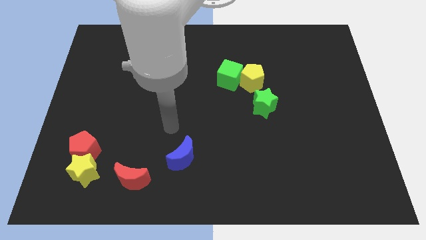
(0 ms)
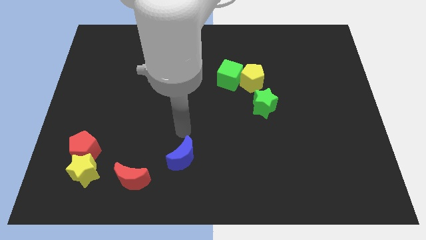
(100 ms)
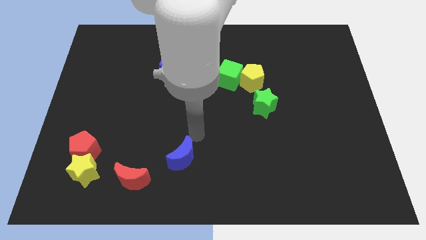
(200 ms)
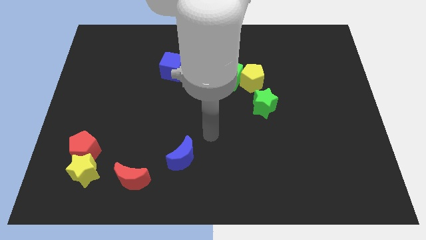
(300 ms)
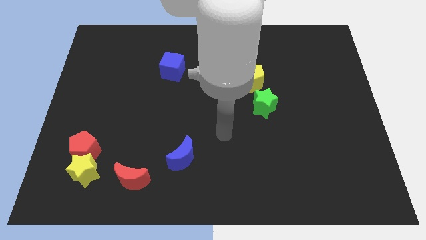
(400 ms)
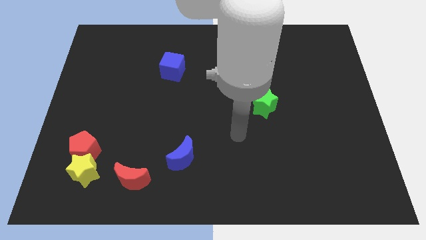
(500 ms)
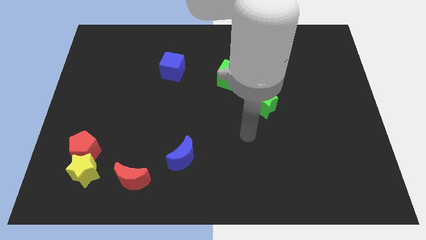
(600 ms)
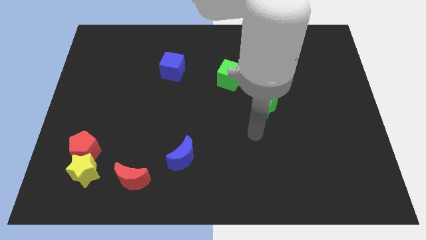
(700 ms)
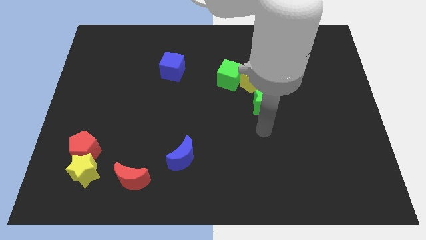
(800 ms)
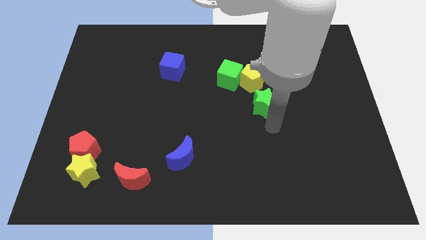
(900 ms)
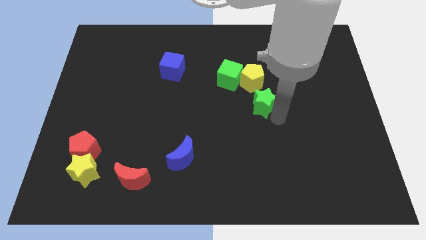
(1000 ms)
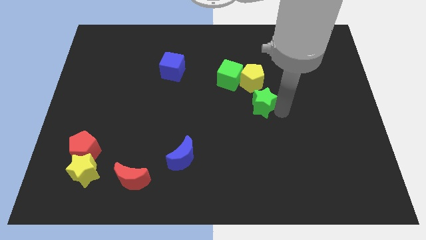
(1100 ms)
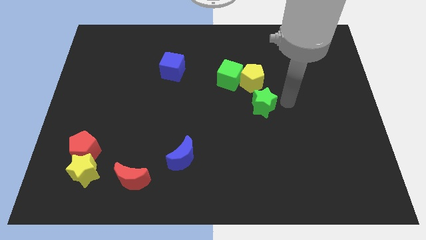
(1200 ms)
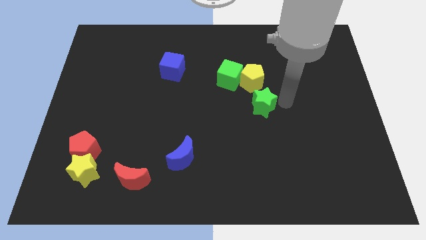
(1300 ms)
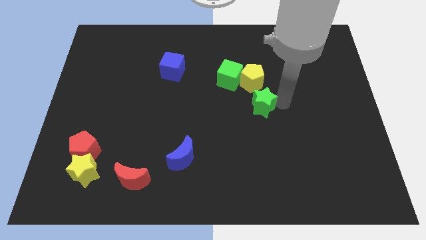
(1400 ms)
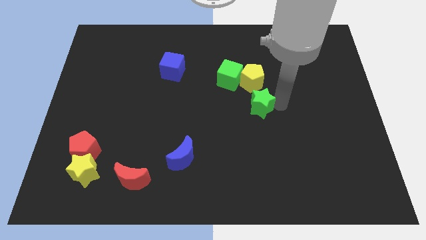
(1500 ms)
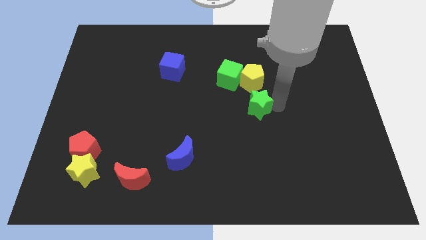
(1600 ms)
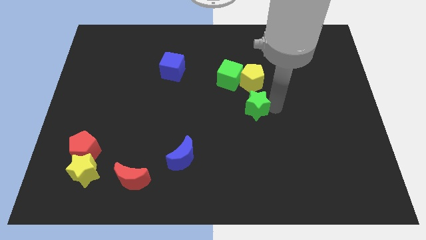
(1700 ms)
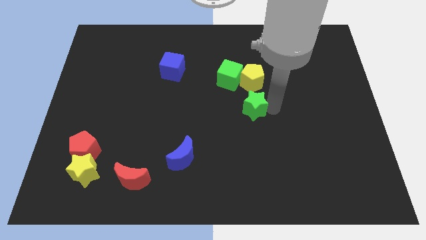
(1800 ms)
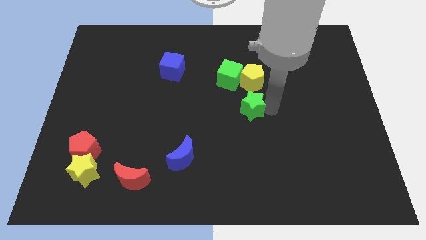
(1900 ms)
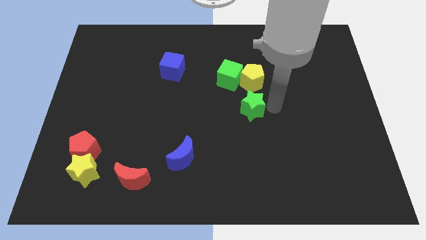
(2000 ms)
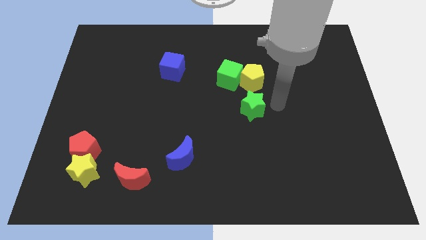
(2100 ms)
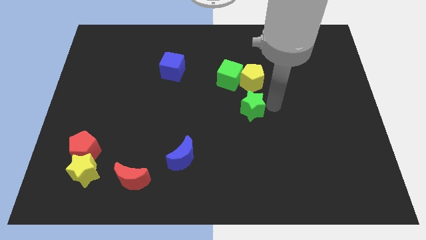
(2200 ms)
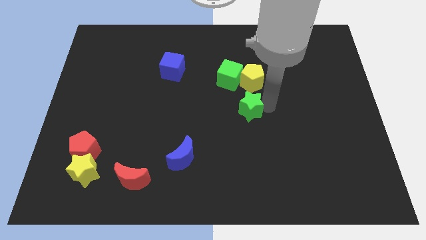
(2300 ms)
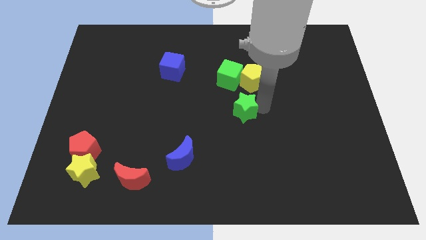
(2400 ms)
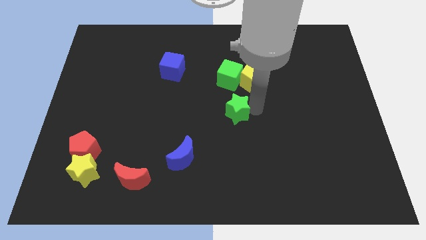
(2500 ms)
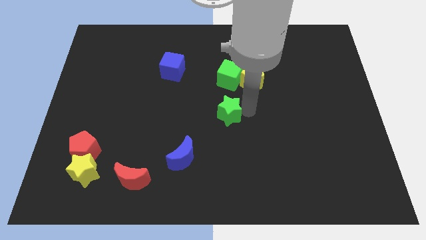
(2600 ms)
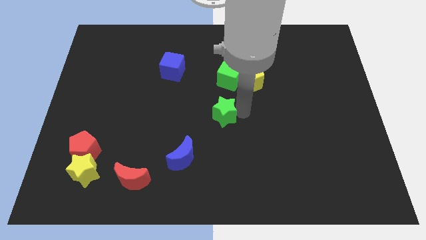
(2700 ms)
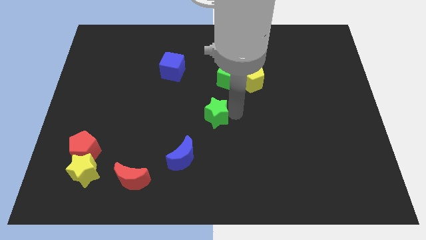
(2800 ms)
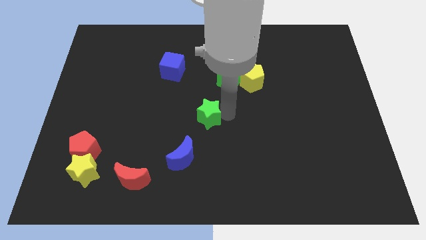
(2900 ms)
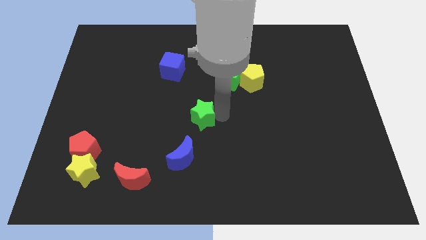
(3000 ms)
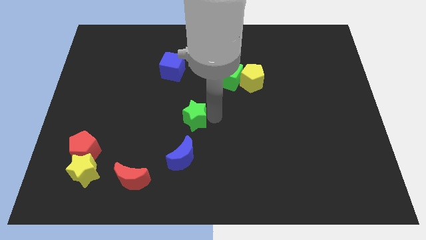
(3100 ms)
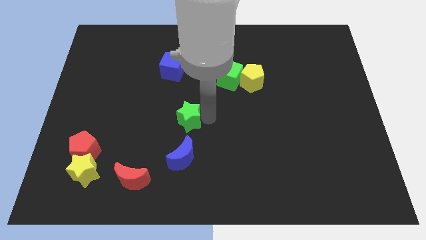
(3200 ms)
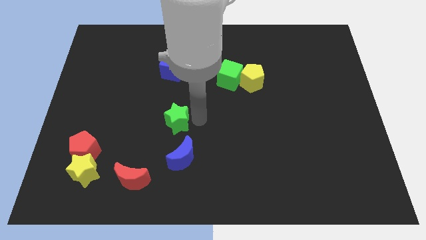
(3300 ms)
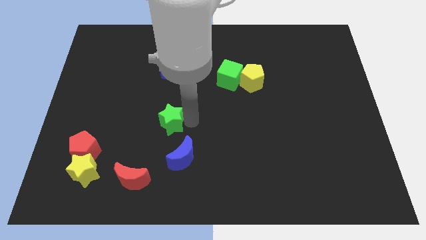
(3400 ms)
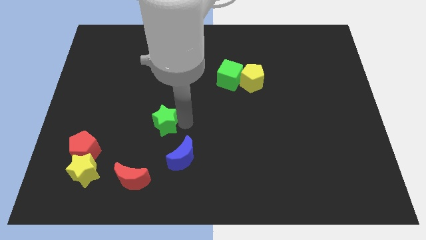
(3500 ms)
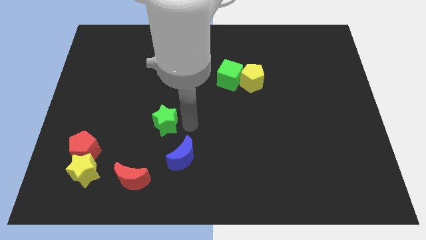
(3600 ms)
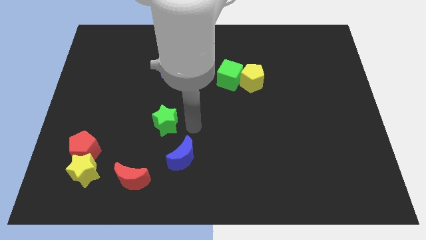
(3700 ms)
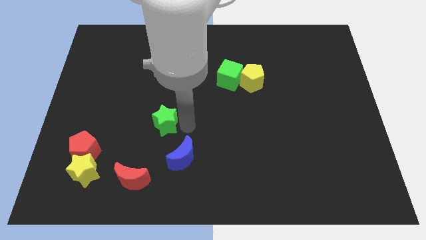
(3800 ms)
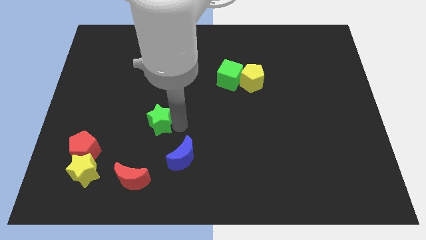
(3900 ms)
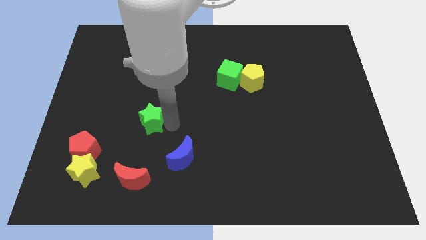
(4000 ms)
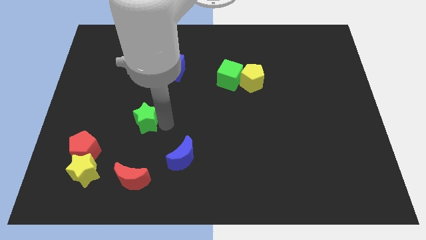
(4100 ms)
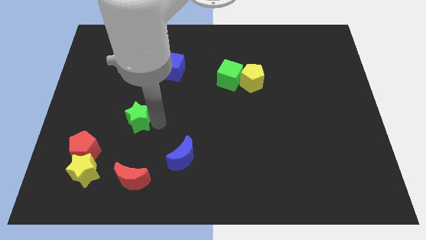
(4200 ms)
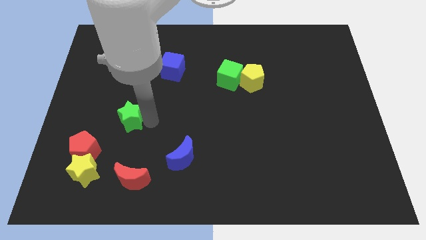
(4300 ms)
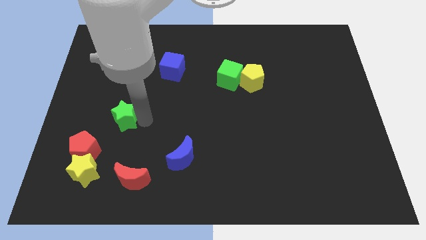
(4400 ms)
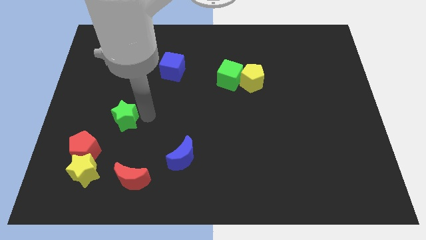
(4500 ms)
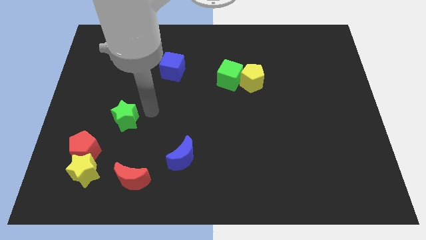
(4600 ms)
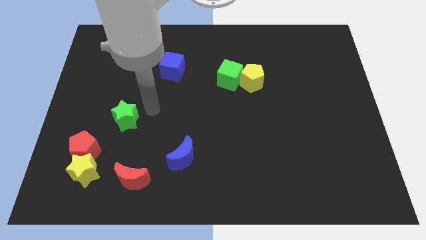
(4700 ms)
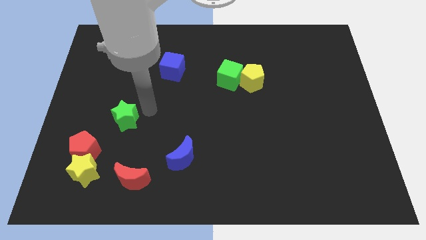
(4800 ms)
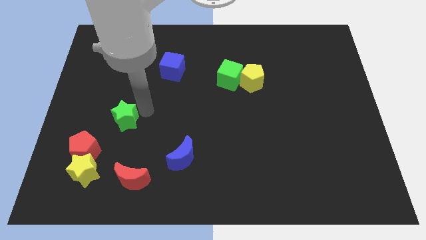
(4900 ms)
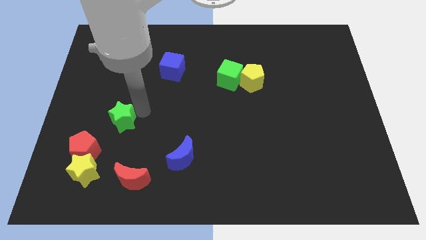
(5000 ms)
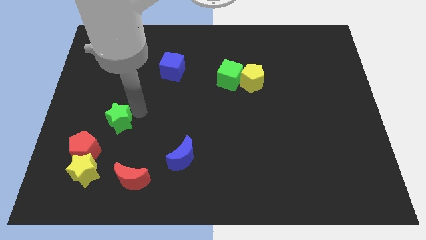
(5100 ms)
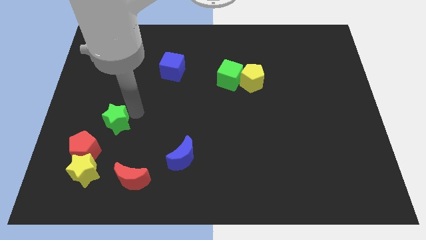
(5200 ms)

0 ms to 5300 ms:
slide the green star to the top of the yellow star

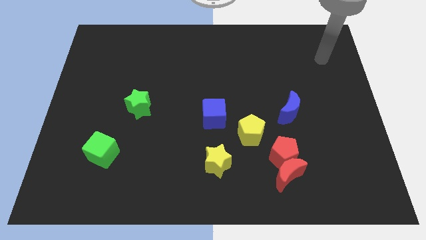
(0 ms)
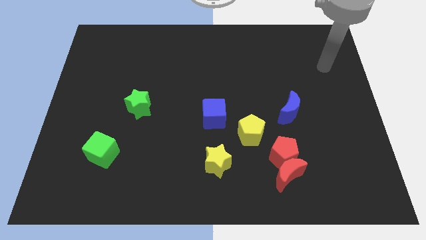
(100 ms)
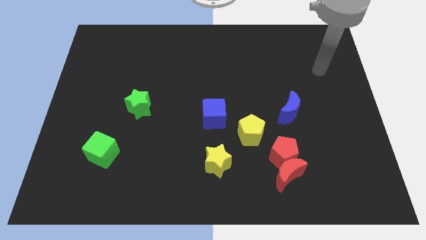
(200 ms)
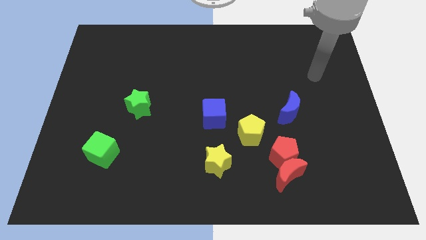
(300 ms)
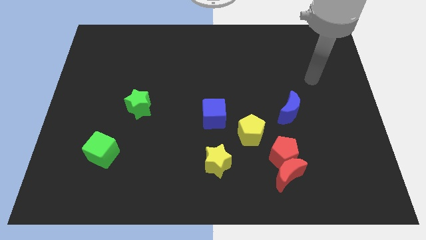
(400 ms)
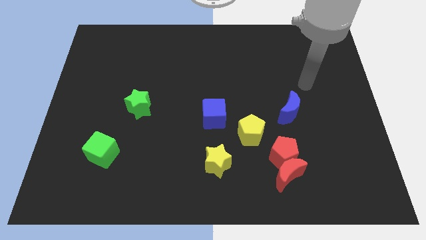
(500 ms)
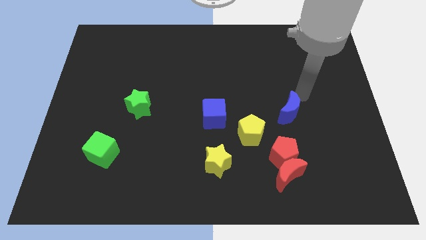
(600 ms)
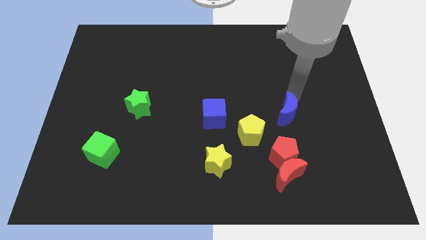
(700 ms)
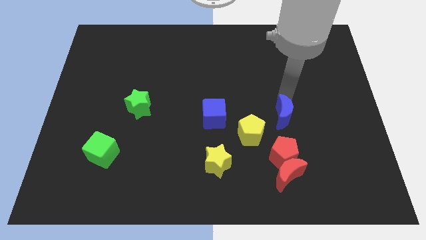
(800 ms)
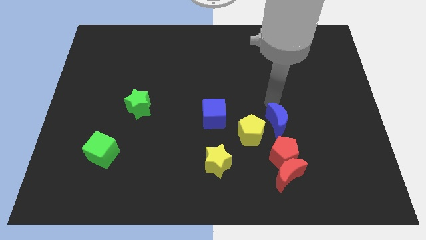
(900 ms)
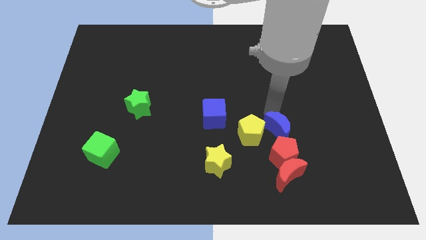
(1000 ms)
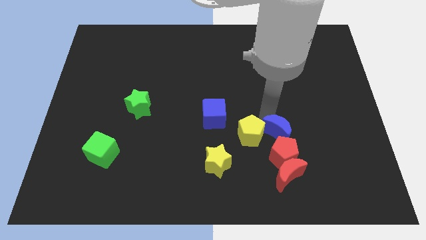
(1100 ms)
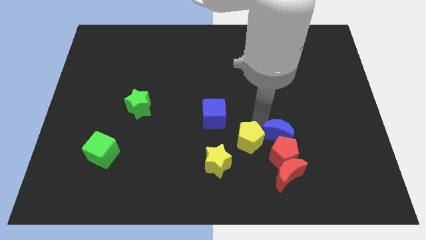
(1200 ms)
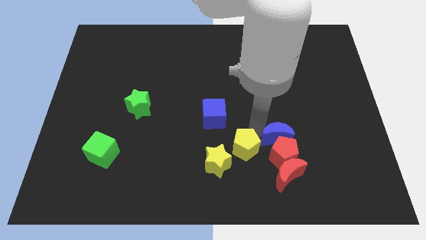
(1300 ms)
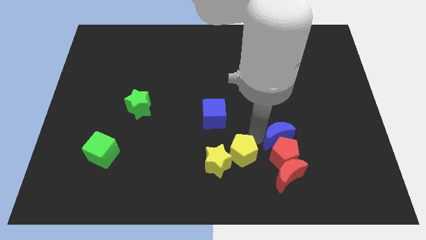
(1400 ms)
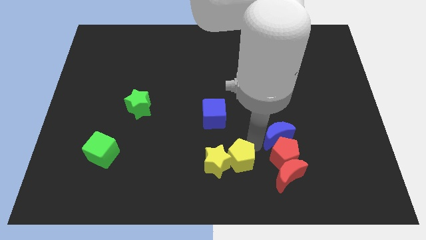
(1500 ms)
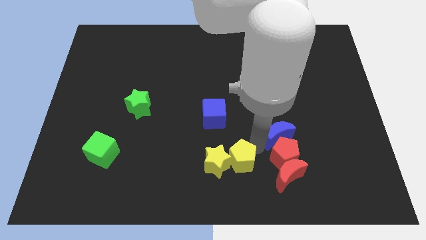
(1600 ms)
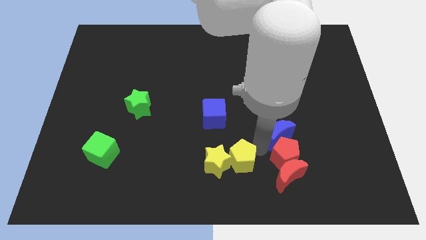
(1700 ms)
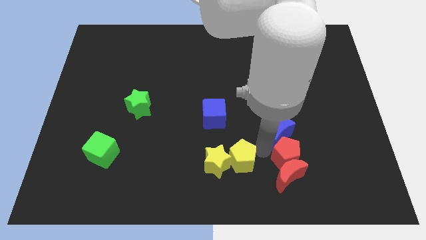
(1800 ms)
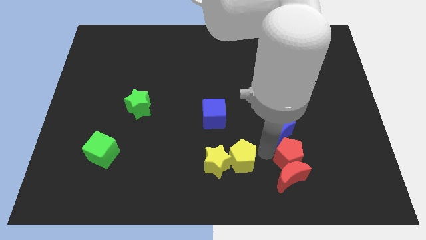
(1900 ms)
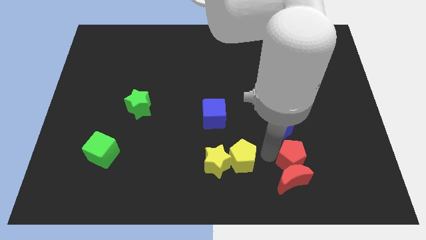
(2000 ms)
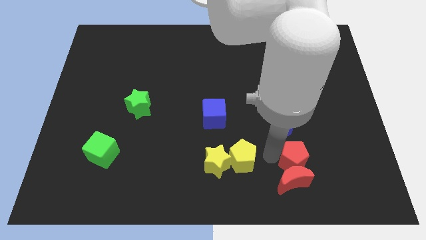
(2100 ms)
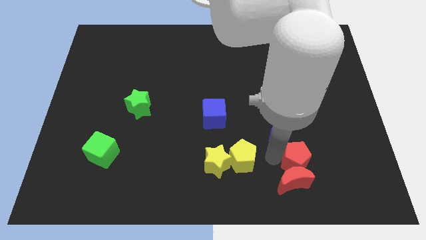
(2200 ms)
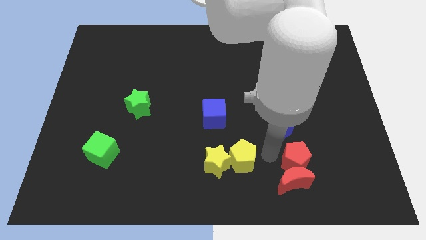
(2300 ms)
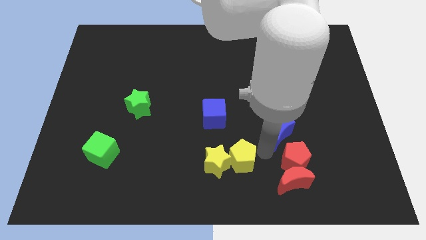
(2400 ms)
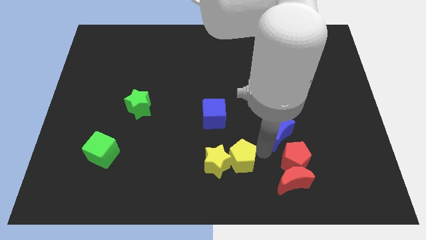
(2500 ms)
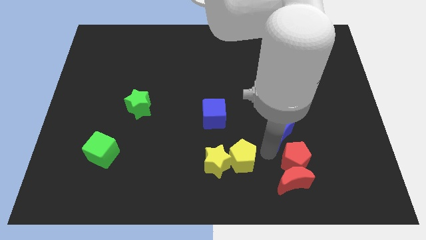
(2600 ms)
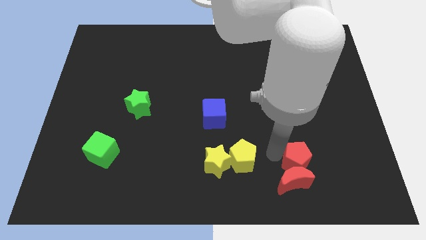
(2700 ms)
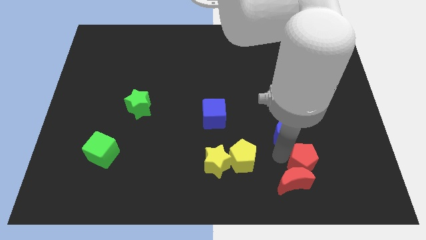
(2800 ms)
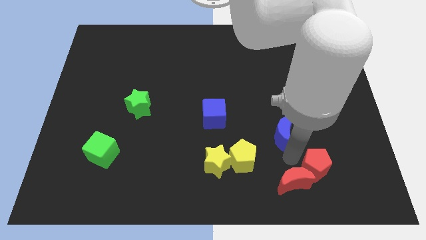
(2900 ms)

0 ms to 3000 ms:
push the red pentagon just right of the red moon
